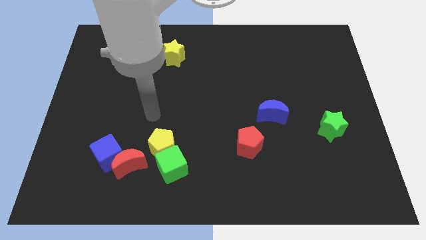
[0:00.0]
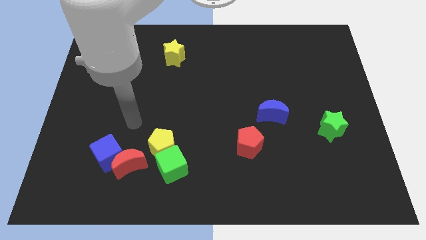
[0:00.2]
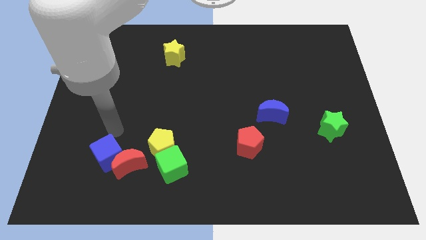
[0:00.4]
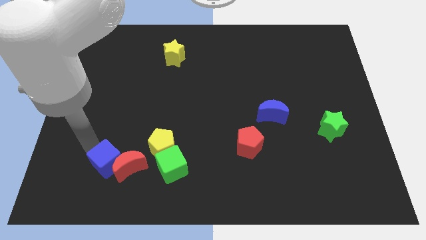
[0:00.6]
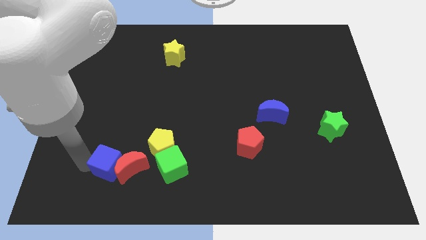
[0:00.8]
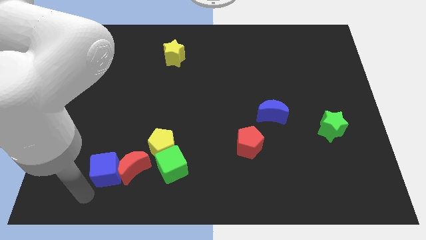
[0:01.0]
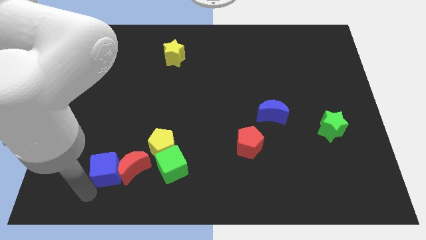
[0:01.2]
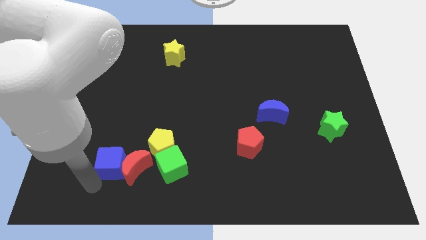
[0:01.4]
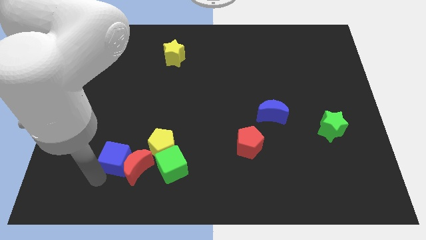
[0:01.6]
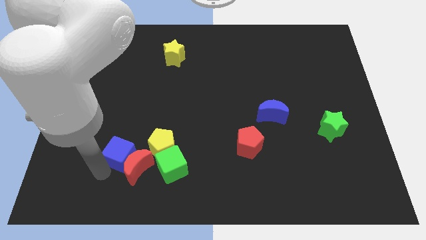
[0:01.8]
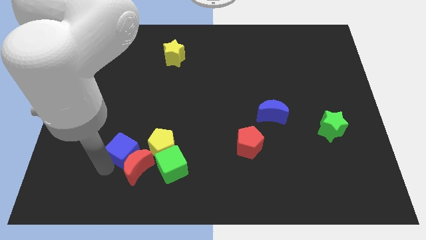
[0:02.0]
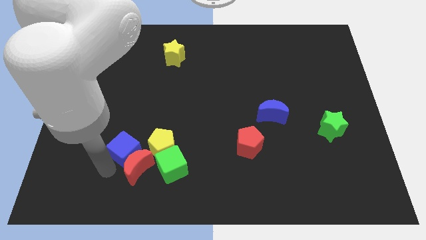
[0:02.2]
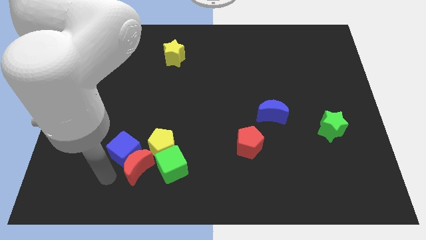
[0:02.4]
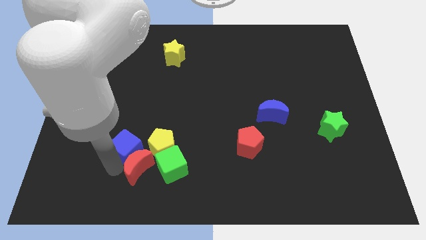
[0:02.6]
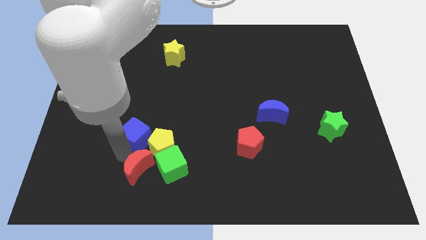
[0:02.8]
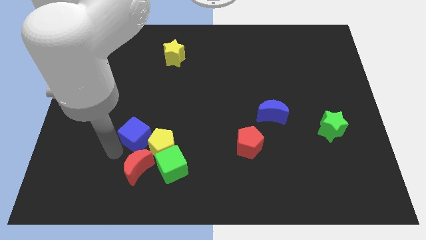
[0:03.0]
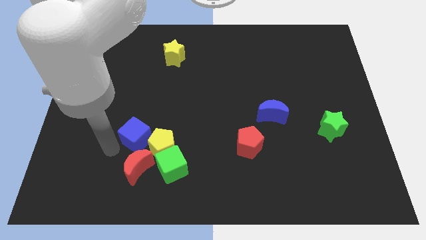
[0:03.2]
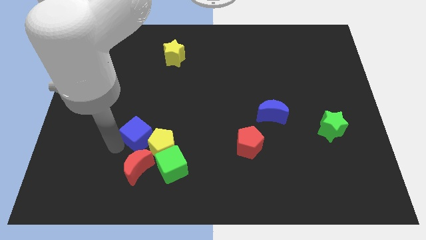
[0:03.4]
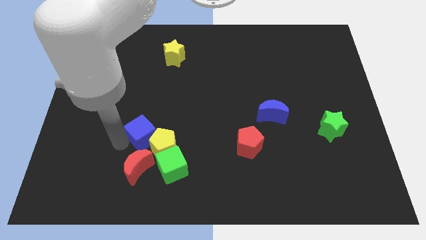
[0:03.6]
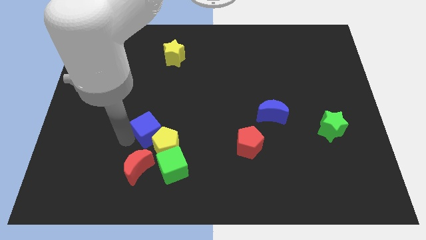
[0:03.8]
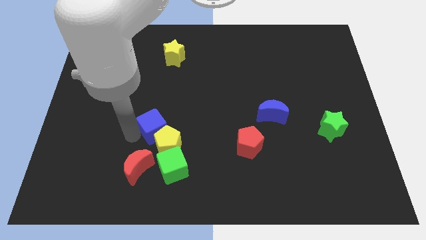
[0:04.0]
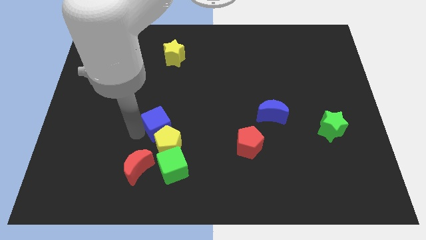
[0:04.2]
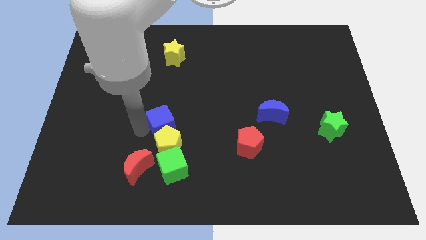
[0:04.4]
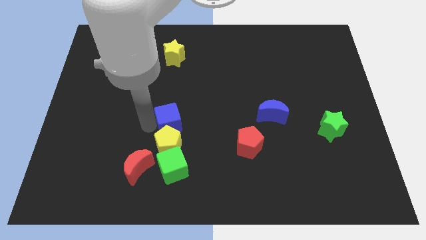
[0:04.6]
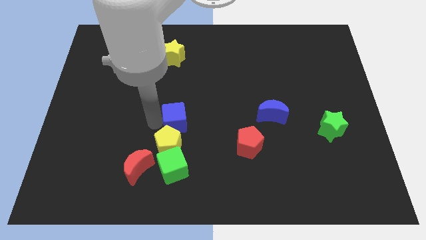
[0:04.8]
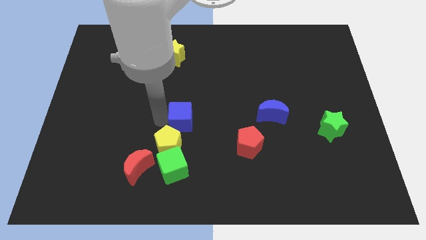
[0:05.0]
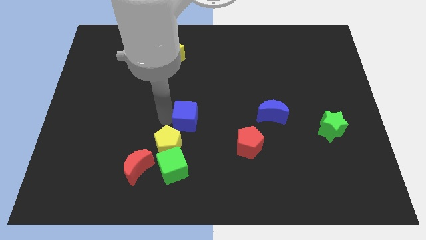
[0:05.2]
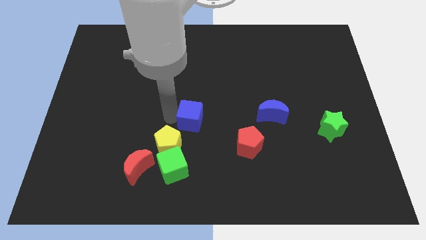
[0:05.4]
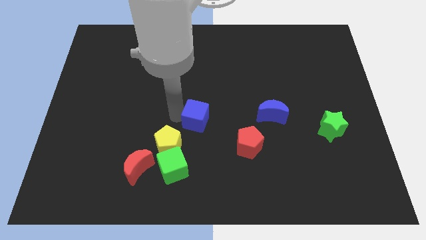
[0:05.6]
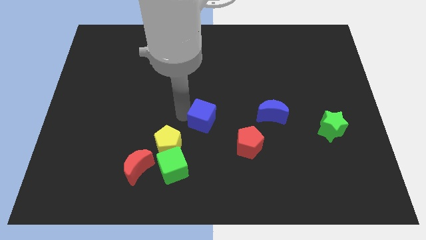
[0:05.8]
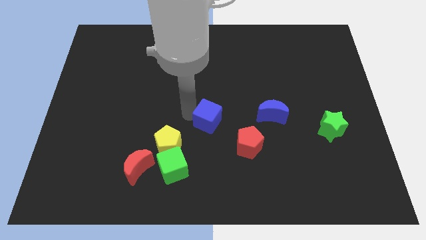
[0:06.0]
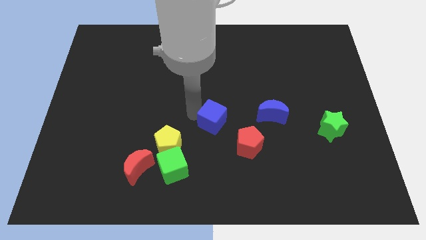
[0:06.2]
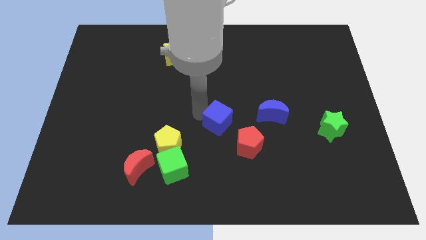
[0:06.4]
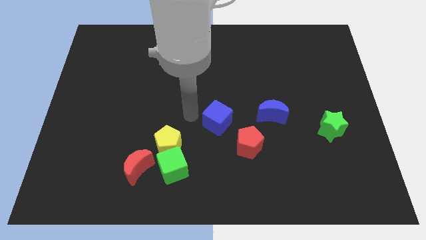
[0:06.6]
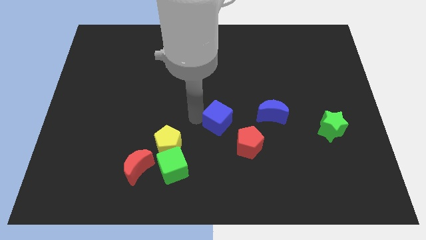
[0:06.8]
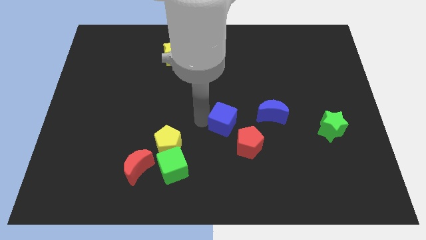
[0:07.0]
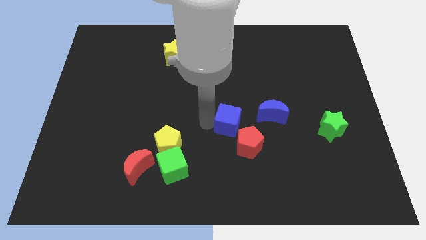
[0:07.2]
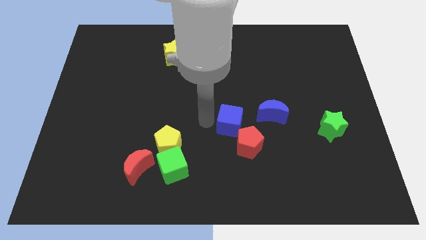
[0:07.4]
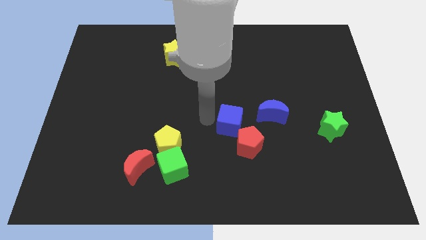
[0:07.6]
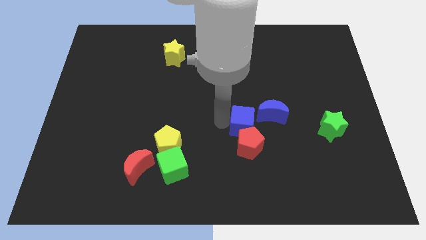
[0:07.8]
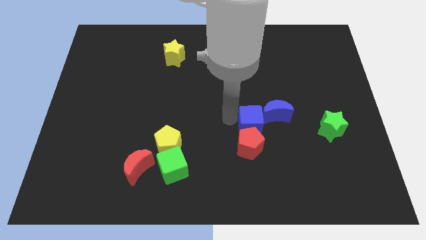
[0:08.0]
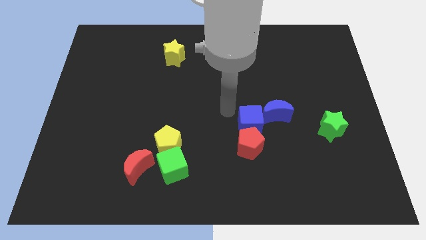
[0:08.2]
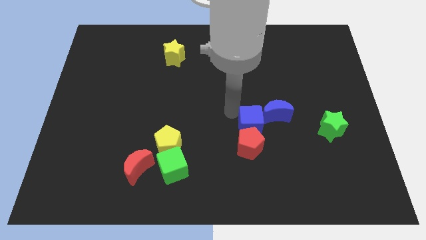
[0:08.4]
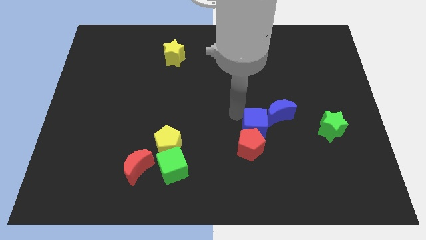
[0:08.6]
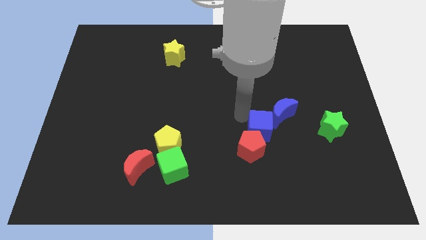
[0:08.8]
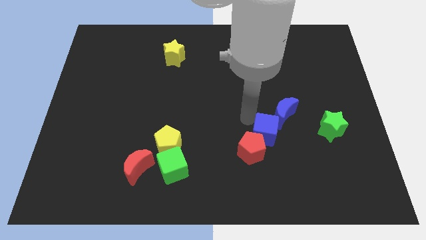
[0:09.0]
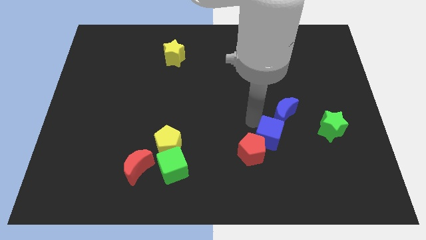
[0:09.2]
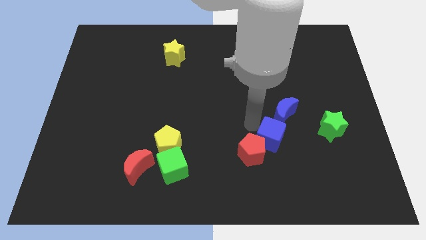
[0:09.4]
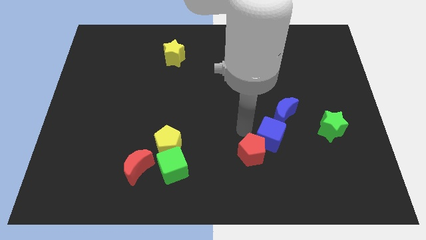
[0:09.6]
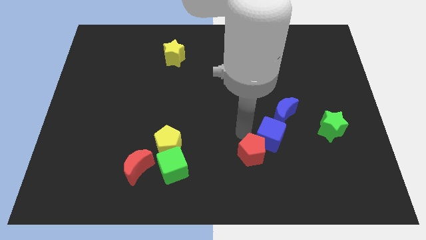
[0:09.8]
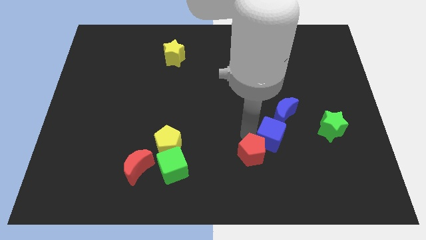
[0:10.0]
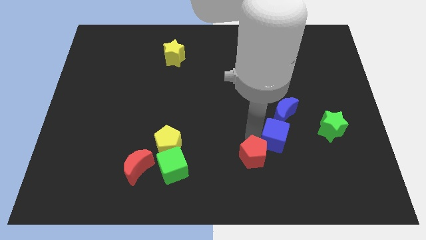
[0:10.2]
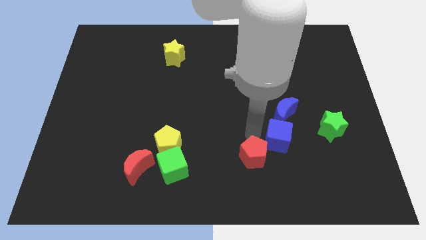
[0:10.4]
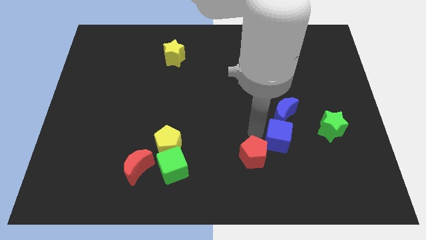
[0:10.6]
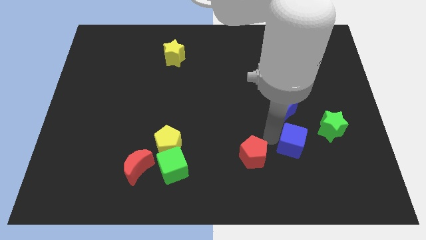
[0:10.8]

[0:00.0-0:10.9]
move the blue cube to the bottom left of the green star

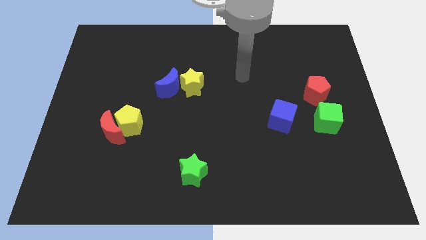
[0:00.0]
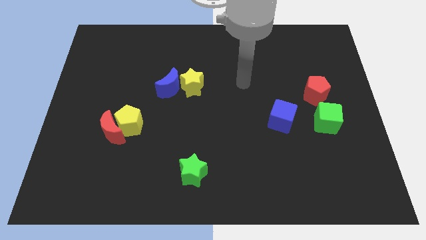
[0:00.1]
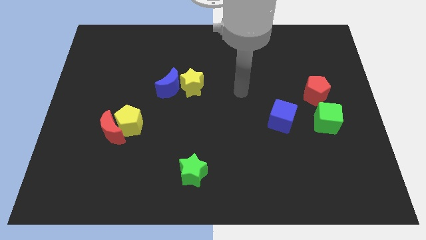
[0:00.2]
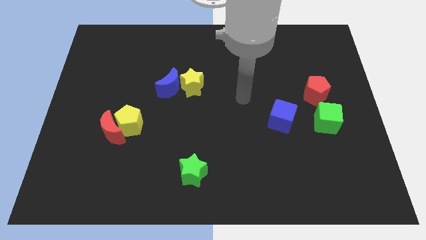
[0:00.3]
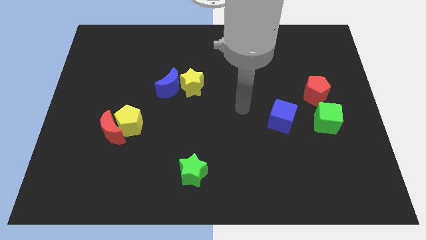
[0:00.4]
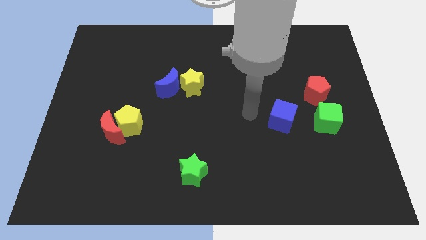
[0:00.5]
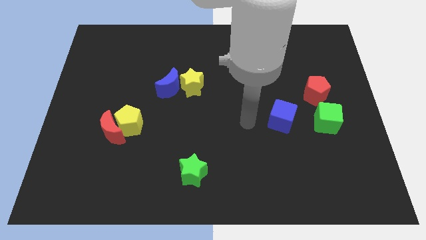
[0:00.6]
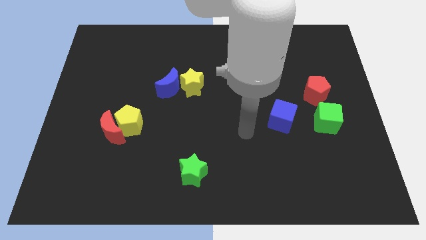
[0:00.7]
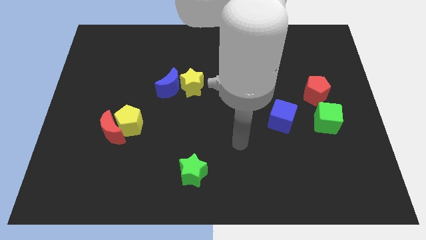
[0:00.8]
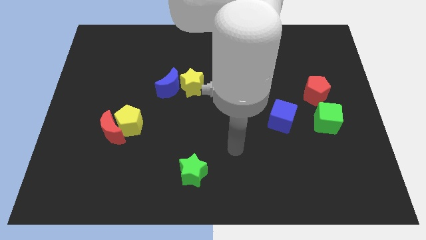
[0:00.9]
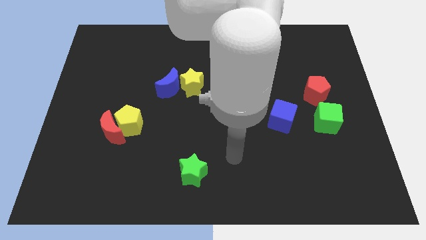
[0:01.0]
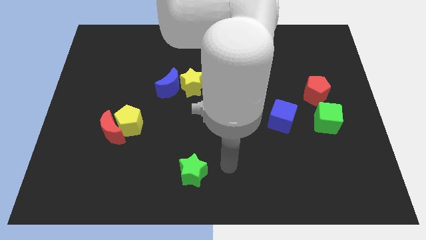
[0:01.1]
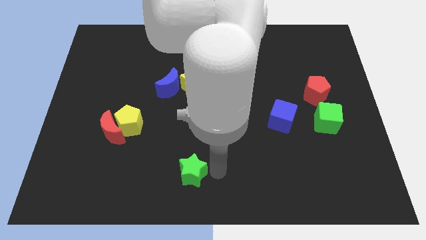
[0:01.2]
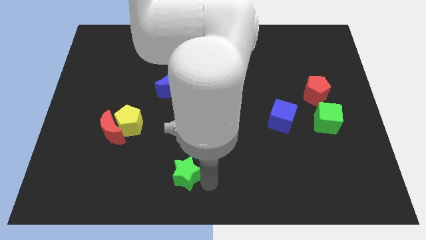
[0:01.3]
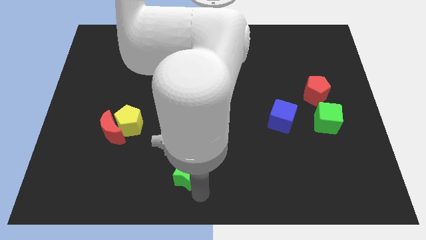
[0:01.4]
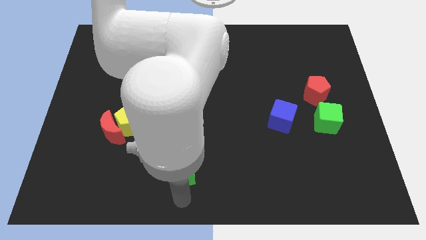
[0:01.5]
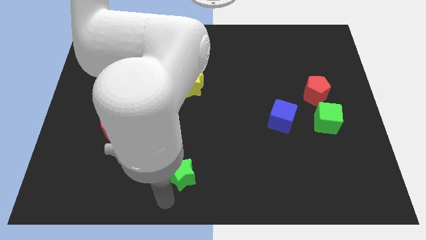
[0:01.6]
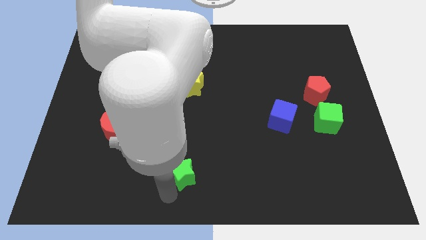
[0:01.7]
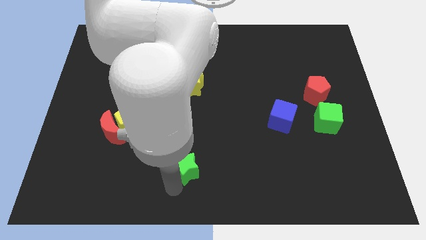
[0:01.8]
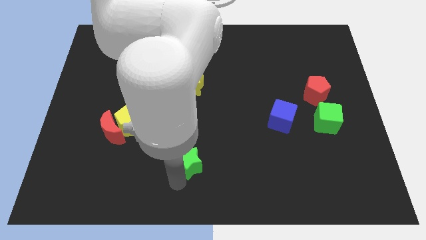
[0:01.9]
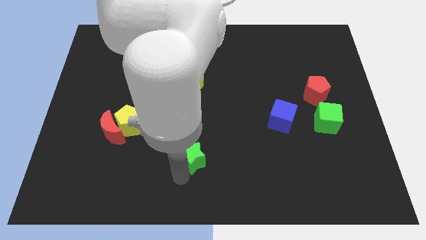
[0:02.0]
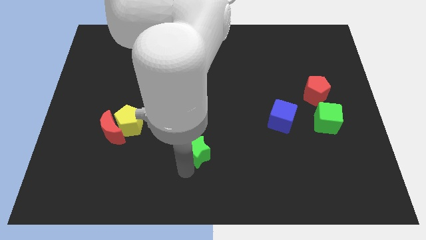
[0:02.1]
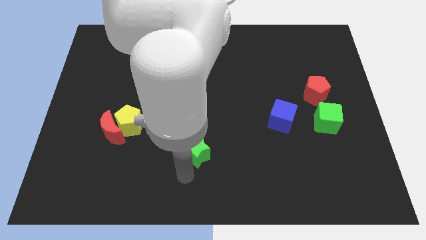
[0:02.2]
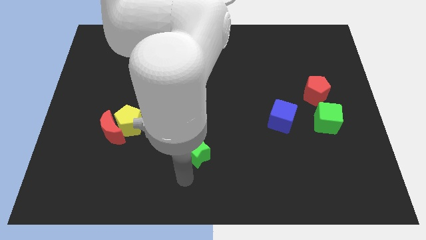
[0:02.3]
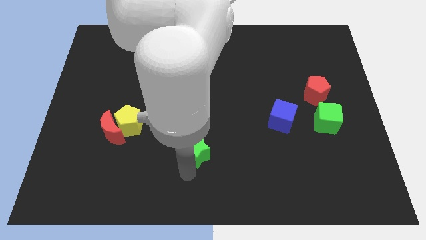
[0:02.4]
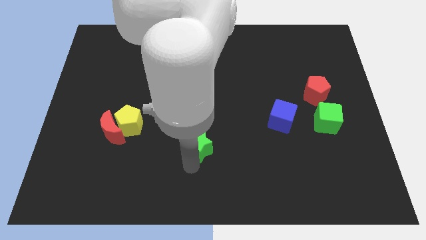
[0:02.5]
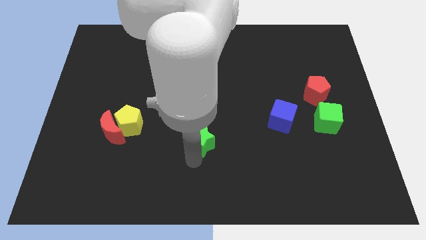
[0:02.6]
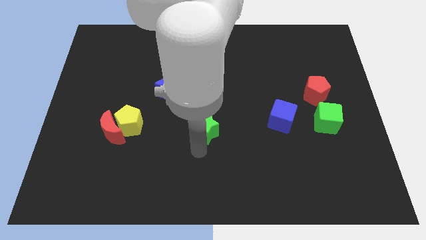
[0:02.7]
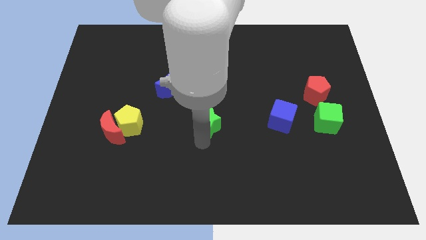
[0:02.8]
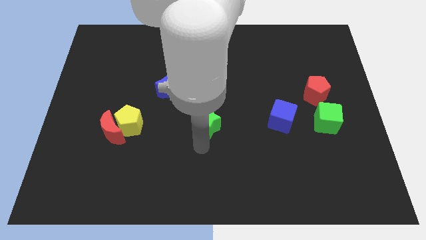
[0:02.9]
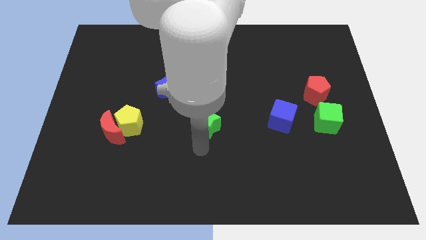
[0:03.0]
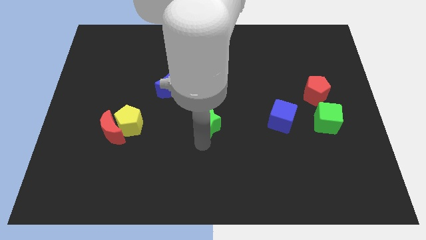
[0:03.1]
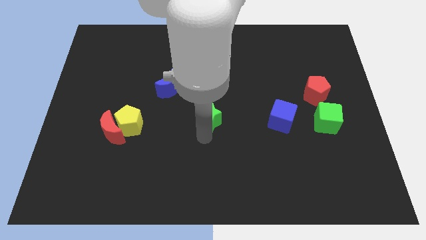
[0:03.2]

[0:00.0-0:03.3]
push the green star diagonally down and to the right of the yellow star
